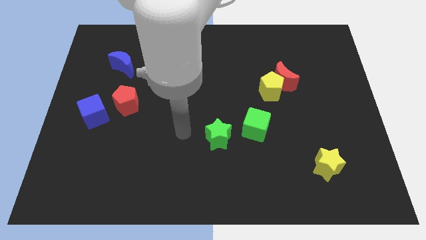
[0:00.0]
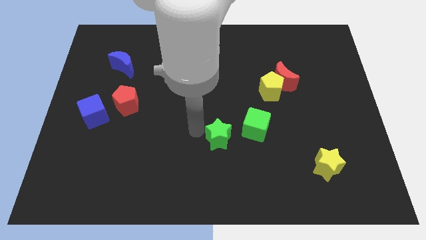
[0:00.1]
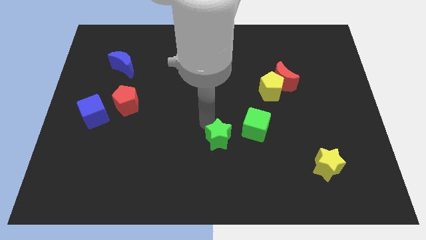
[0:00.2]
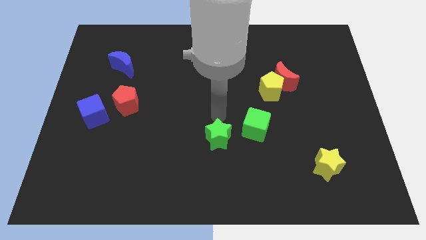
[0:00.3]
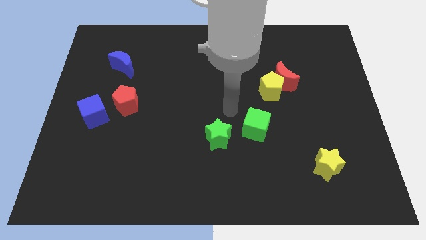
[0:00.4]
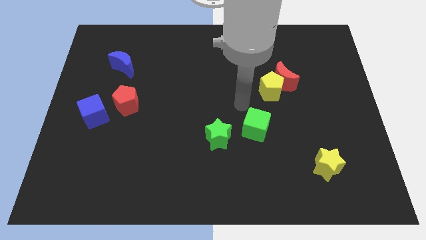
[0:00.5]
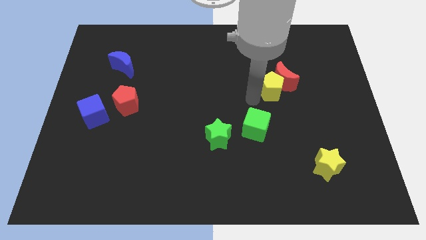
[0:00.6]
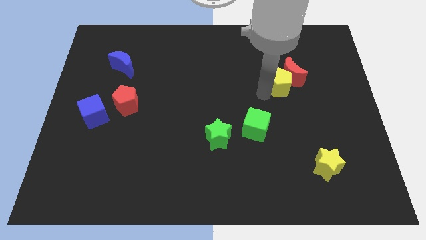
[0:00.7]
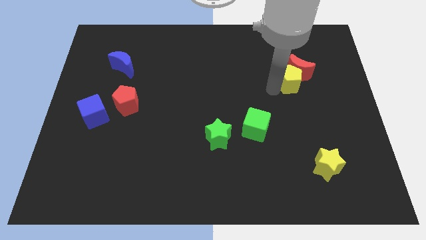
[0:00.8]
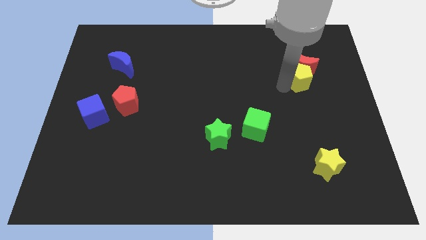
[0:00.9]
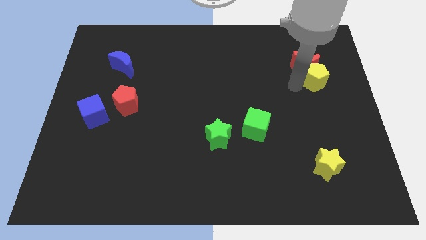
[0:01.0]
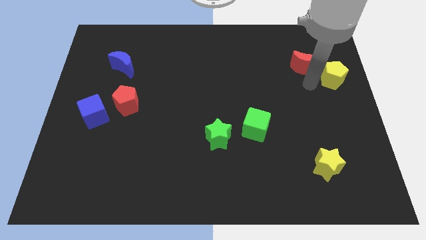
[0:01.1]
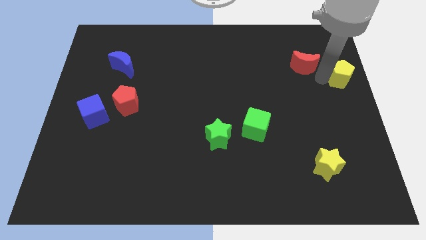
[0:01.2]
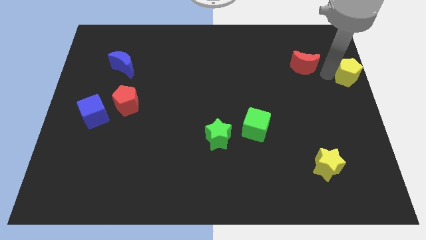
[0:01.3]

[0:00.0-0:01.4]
move the red moon away from the yellow pentagon

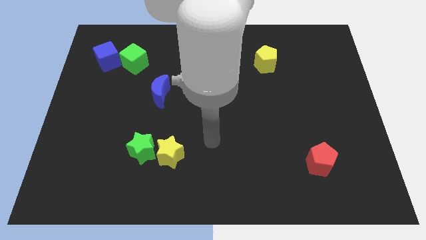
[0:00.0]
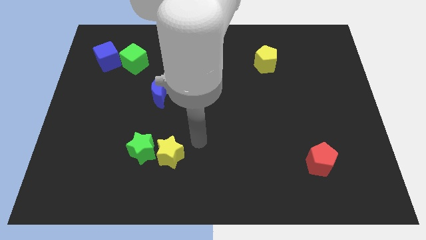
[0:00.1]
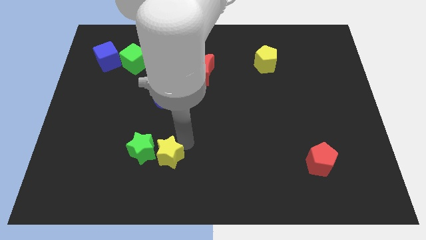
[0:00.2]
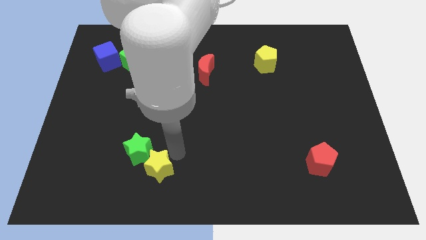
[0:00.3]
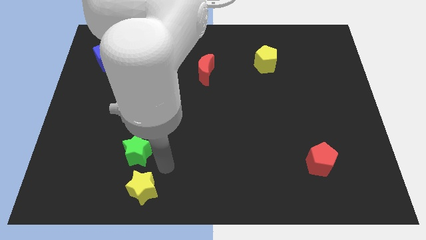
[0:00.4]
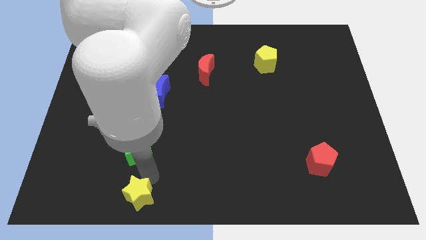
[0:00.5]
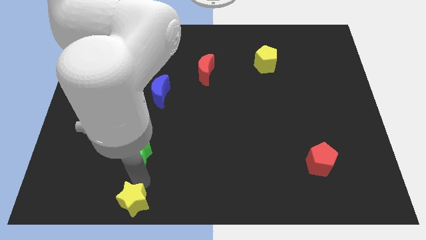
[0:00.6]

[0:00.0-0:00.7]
pull the green star apart from the yellow star

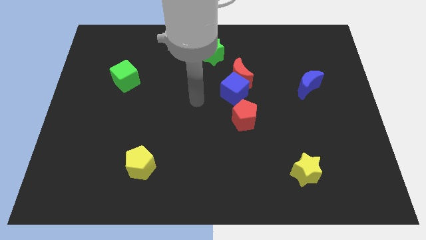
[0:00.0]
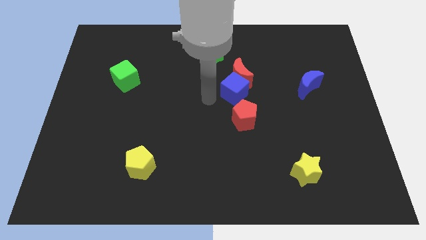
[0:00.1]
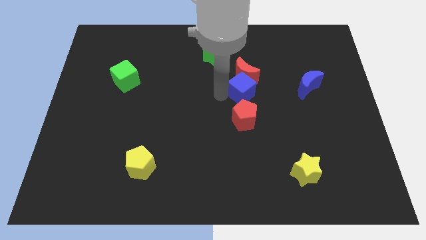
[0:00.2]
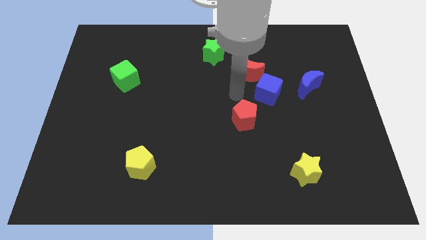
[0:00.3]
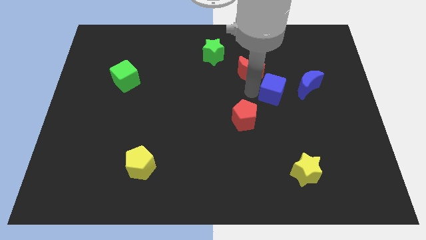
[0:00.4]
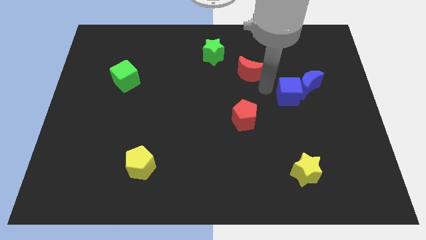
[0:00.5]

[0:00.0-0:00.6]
move the red moon away from the blue cube

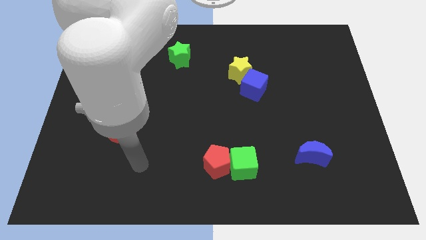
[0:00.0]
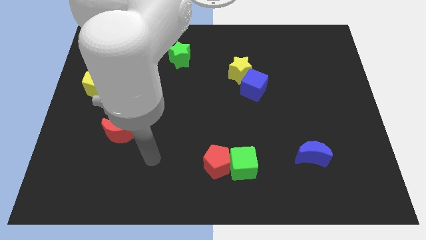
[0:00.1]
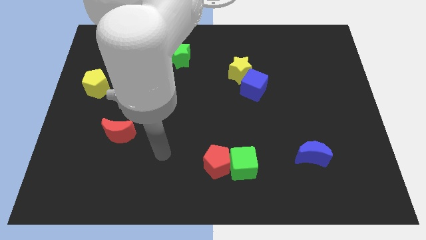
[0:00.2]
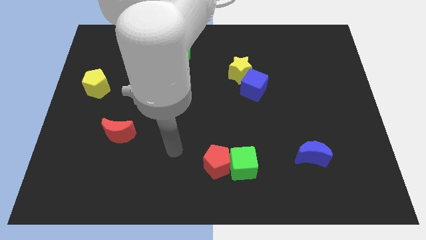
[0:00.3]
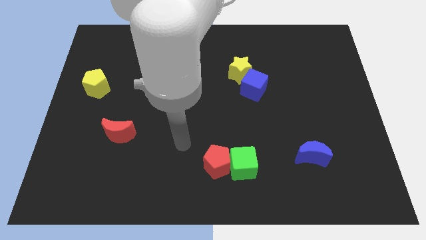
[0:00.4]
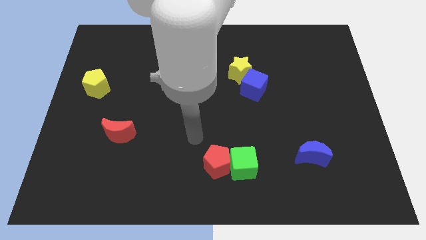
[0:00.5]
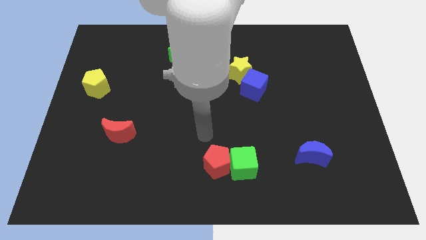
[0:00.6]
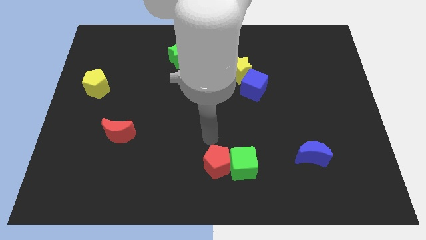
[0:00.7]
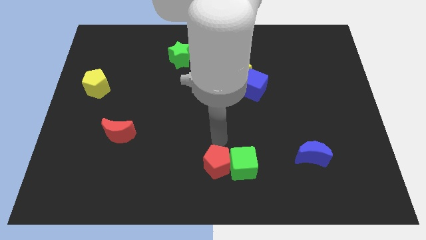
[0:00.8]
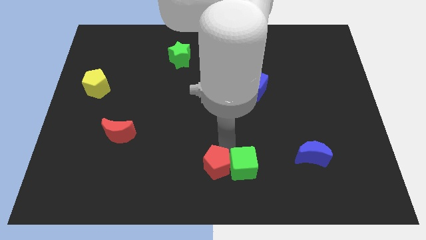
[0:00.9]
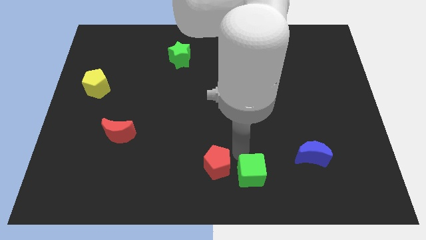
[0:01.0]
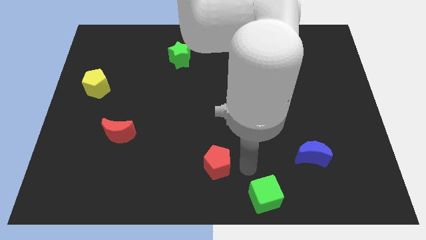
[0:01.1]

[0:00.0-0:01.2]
pull the red pentagon apart from the green cube

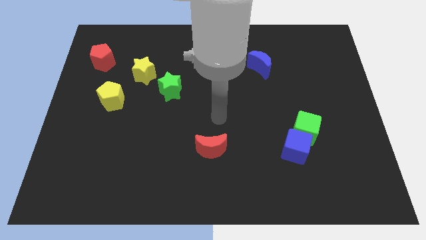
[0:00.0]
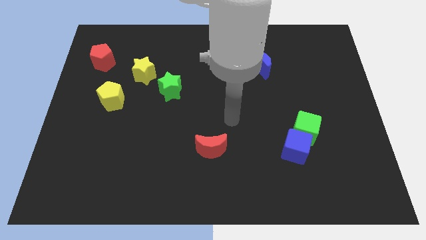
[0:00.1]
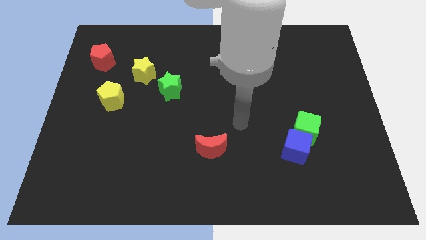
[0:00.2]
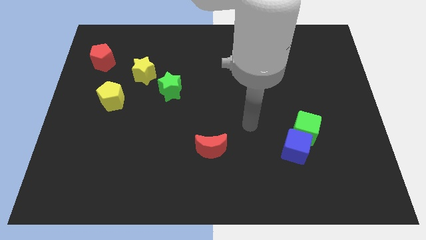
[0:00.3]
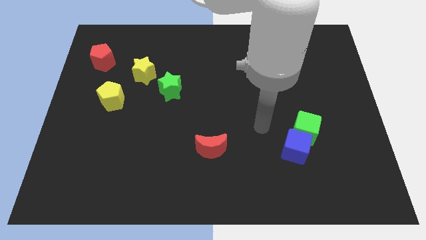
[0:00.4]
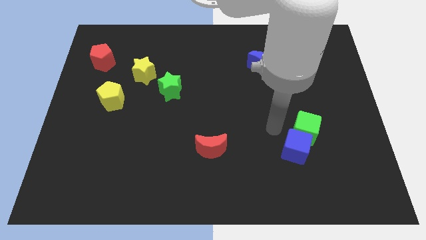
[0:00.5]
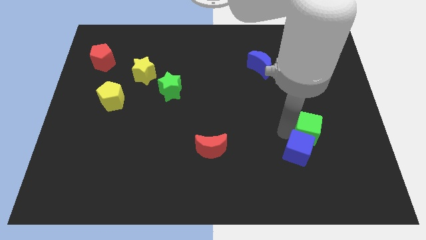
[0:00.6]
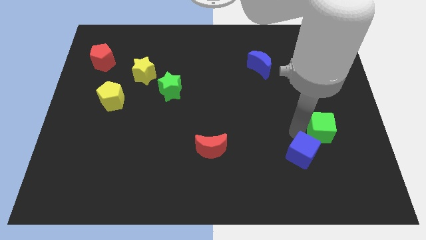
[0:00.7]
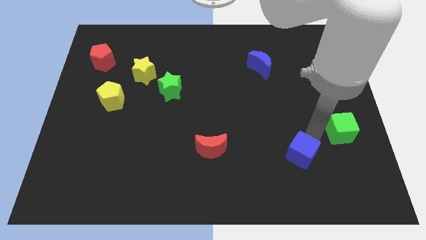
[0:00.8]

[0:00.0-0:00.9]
move the blue cube away from the green cube

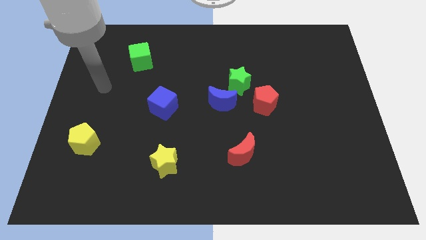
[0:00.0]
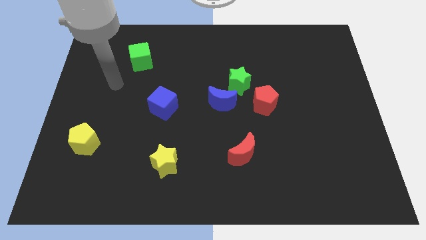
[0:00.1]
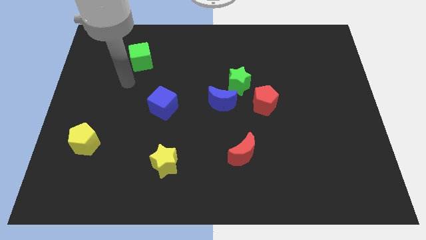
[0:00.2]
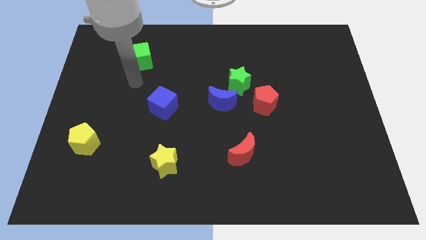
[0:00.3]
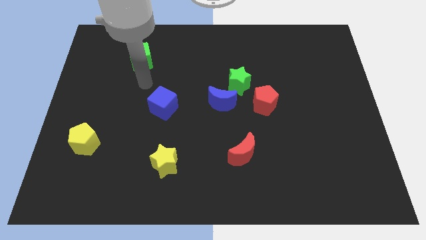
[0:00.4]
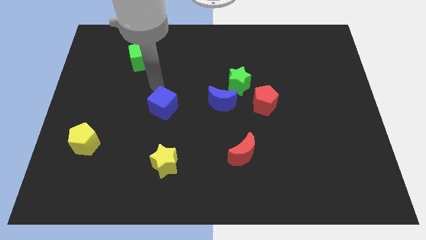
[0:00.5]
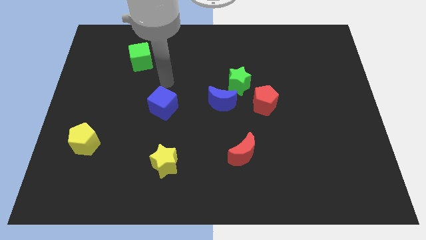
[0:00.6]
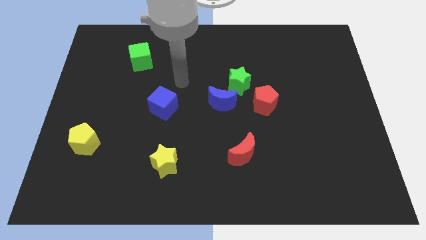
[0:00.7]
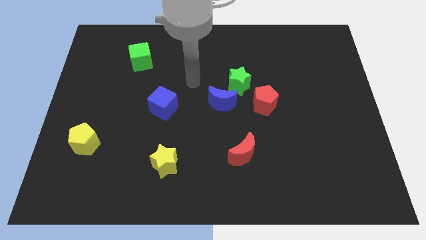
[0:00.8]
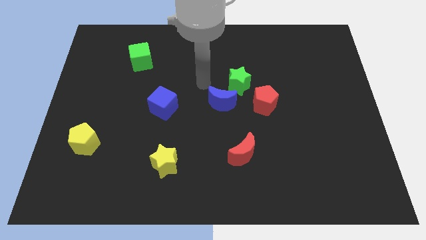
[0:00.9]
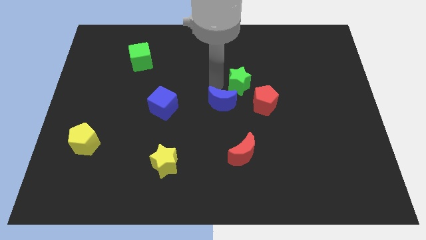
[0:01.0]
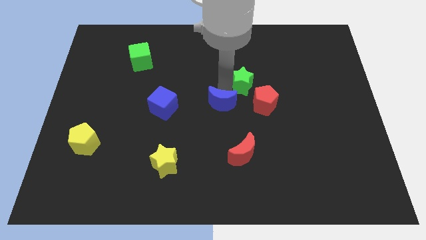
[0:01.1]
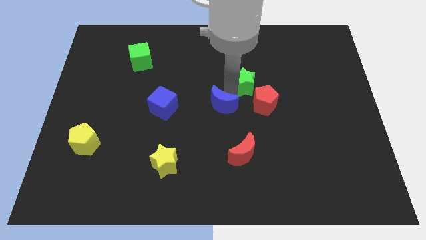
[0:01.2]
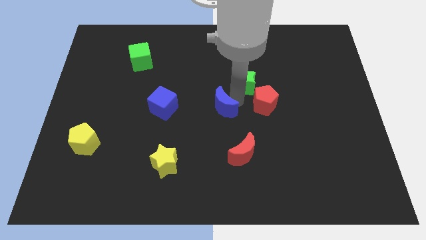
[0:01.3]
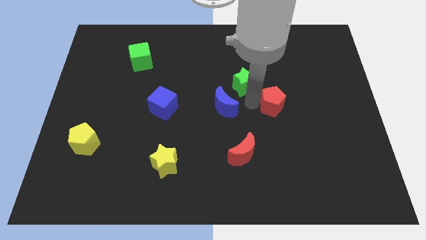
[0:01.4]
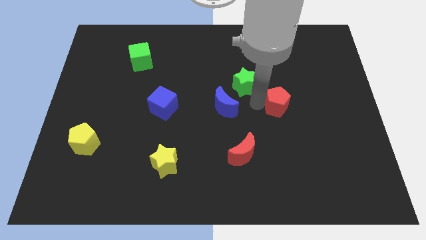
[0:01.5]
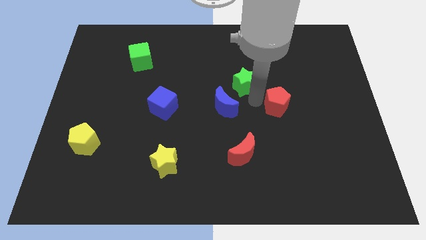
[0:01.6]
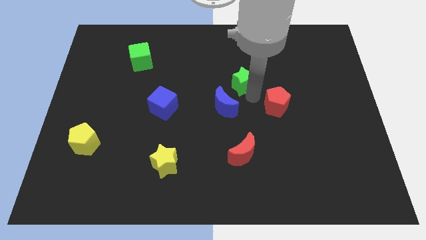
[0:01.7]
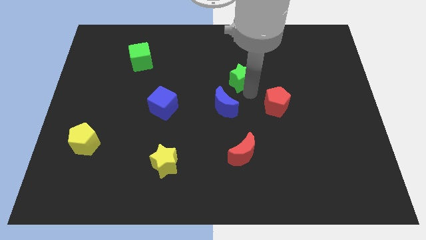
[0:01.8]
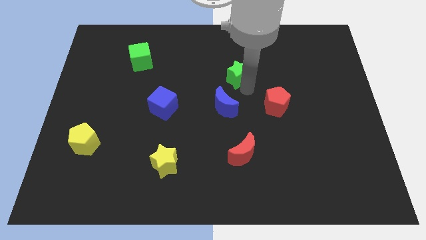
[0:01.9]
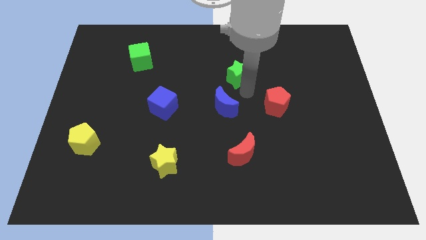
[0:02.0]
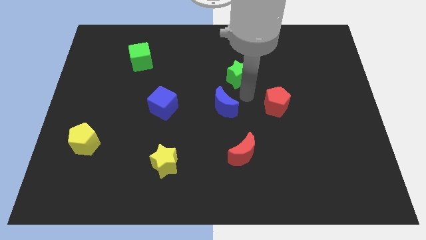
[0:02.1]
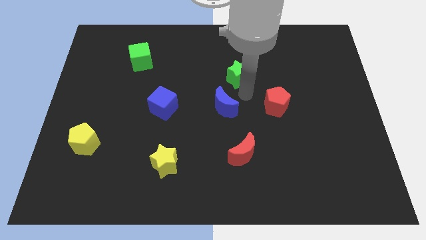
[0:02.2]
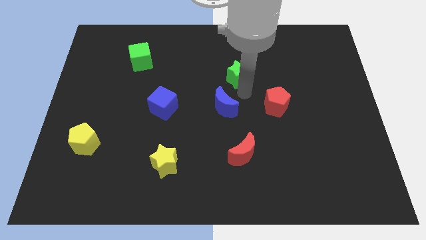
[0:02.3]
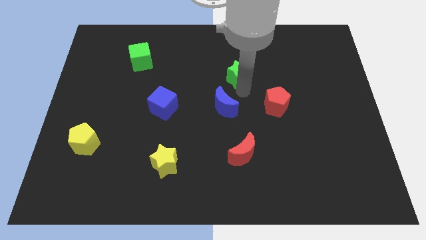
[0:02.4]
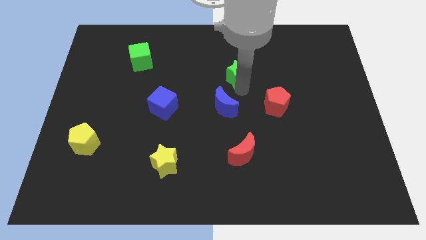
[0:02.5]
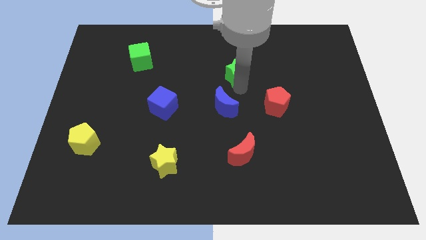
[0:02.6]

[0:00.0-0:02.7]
separate the green star from the blue moon and red pentagon

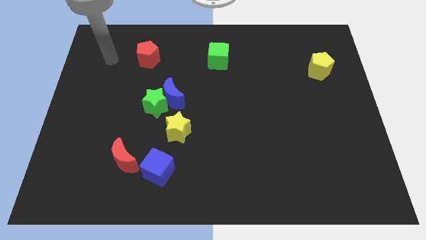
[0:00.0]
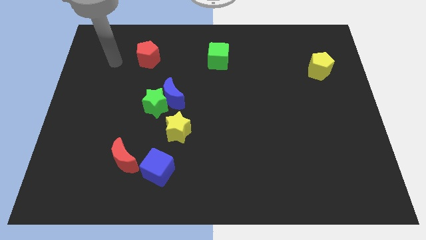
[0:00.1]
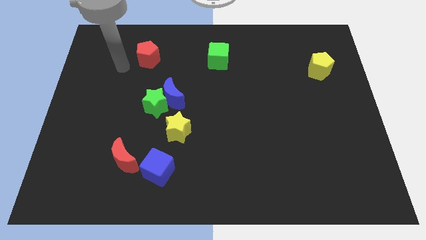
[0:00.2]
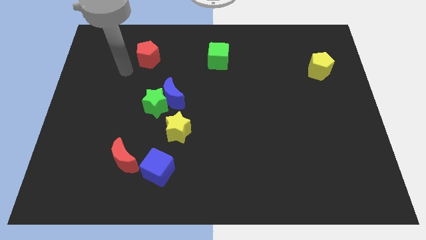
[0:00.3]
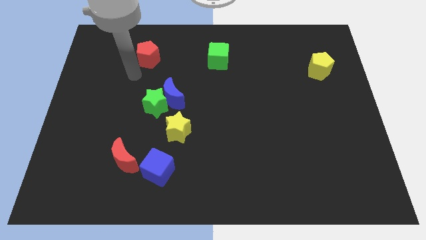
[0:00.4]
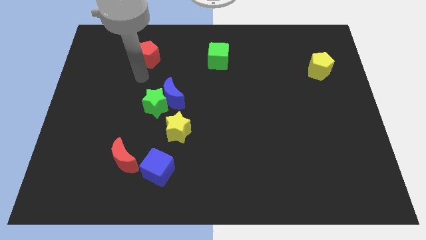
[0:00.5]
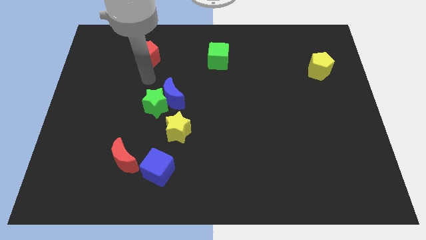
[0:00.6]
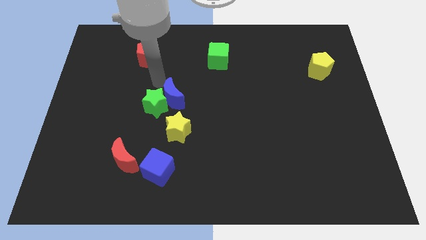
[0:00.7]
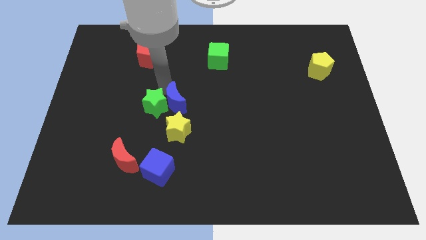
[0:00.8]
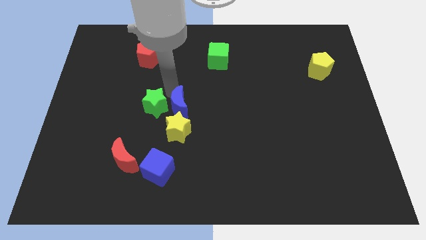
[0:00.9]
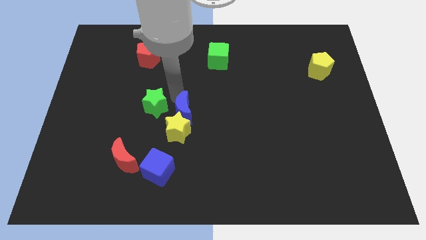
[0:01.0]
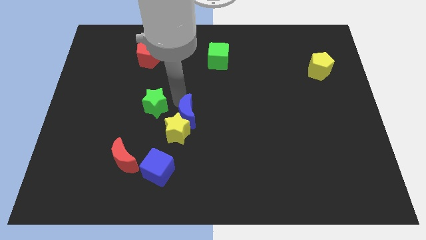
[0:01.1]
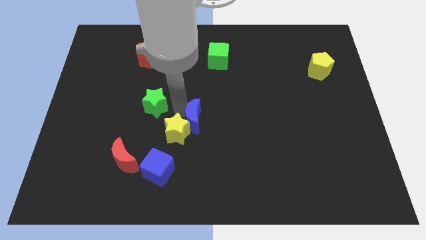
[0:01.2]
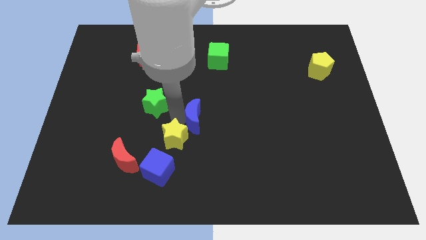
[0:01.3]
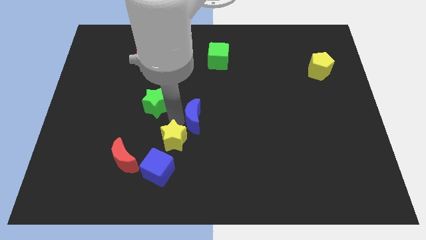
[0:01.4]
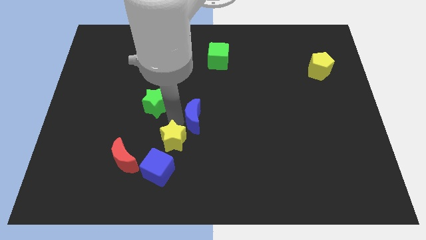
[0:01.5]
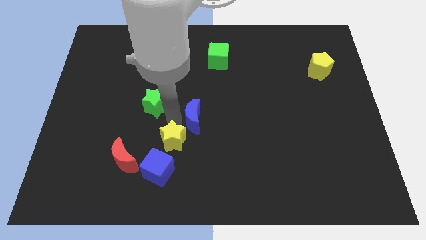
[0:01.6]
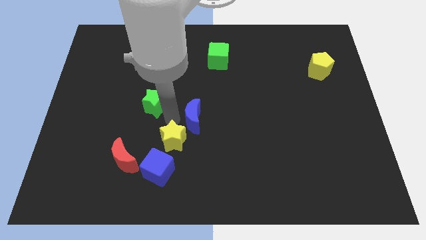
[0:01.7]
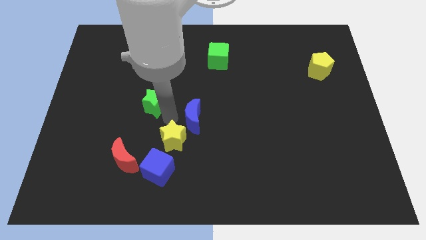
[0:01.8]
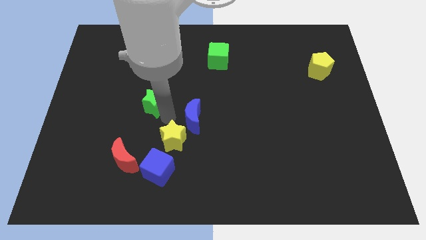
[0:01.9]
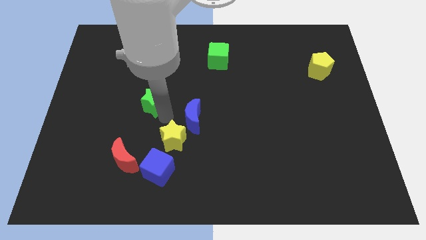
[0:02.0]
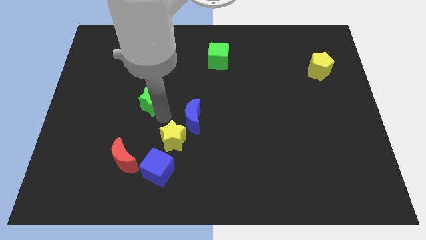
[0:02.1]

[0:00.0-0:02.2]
pull the green star apart from the blue moon and yellow star
